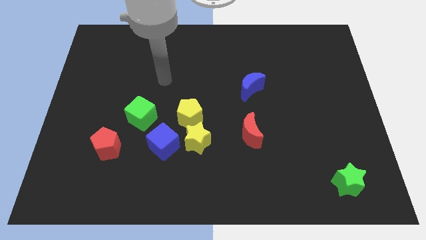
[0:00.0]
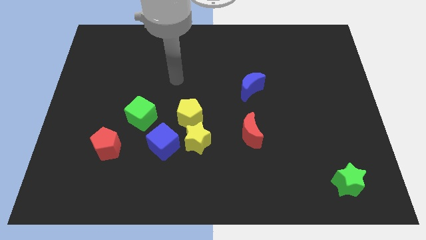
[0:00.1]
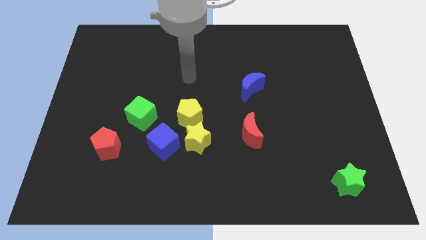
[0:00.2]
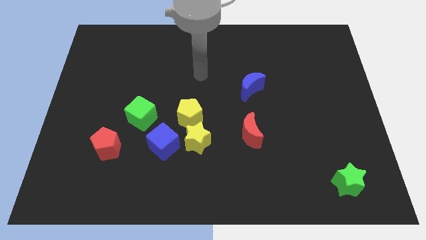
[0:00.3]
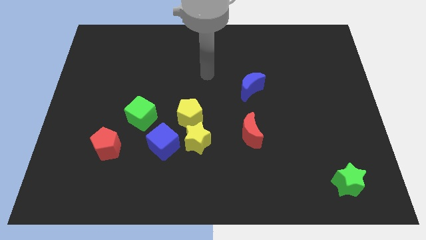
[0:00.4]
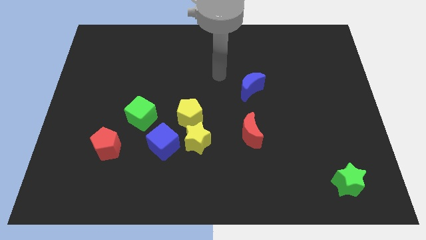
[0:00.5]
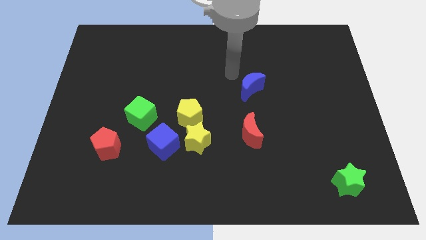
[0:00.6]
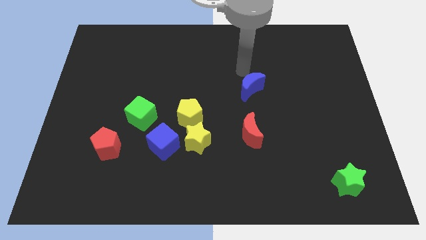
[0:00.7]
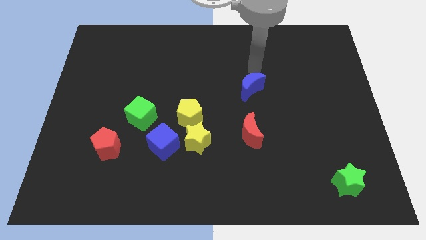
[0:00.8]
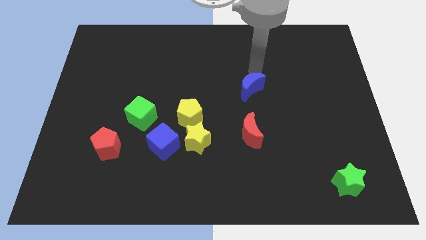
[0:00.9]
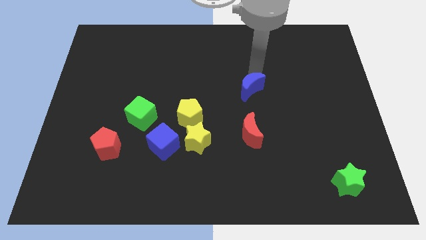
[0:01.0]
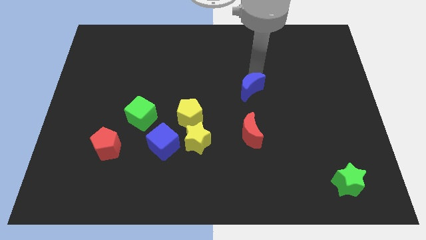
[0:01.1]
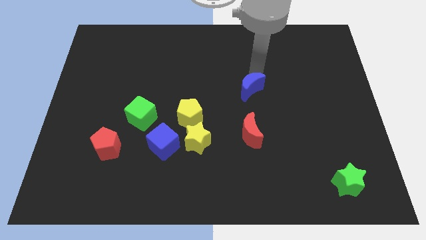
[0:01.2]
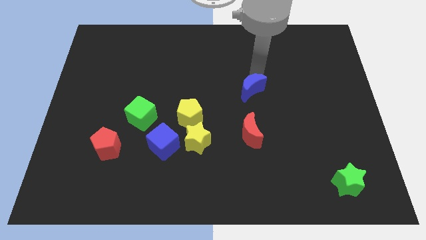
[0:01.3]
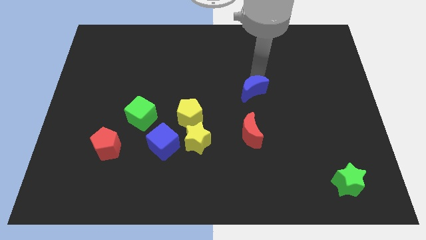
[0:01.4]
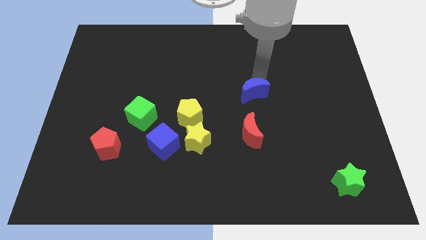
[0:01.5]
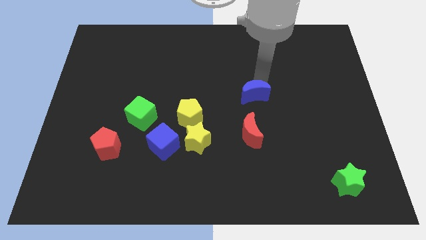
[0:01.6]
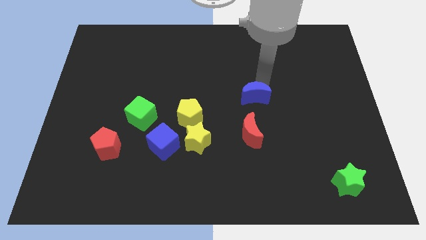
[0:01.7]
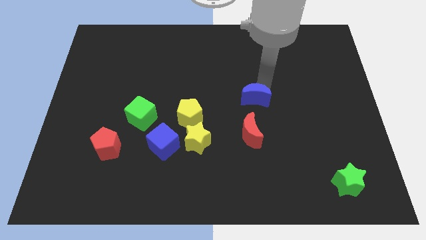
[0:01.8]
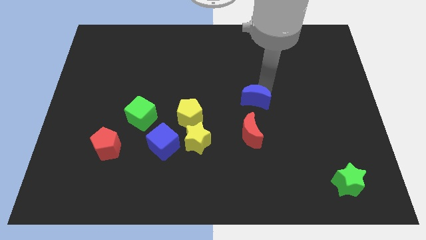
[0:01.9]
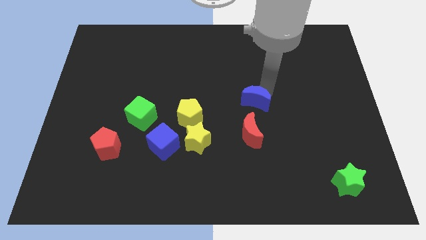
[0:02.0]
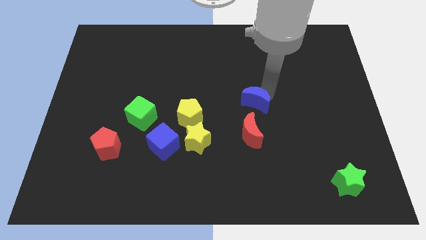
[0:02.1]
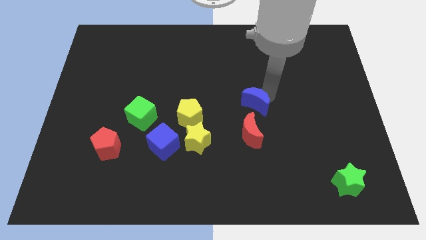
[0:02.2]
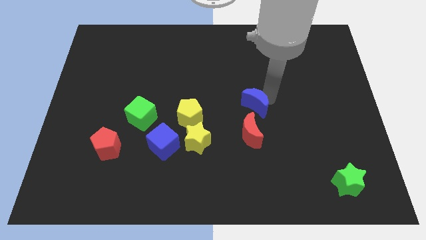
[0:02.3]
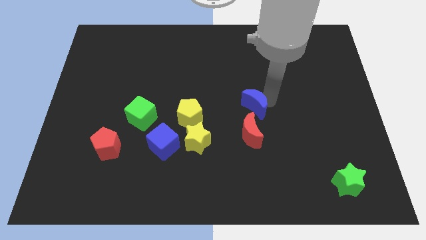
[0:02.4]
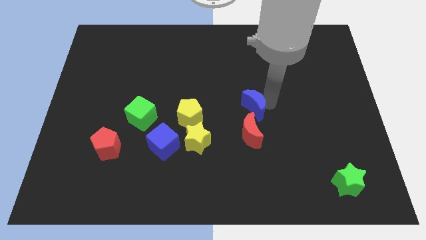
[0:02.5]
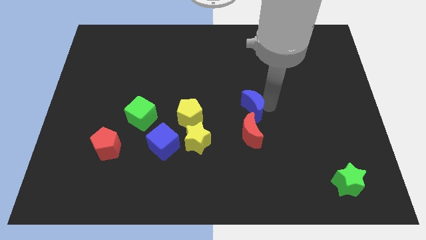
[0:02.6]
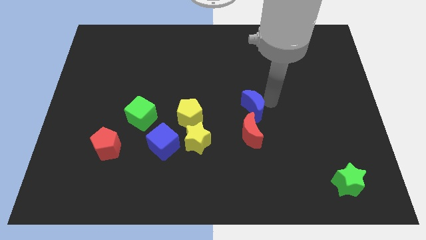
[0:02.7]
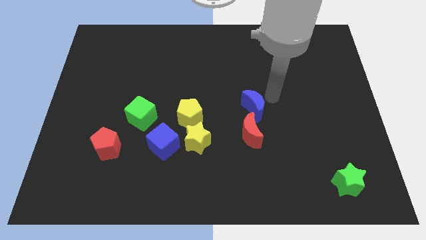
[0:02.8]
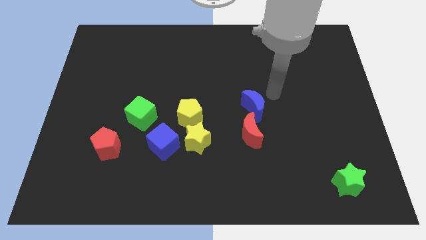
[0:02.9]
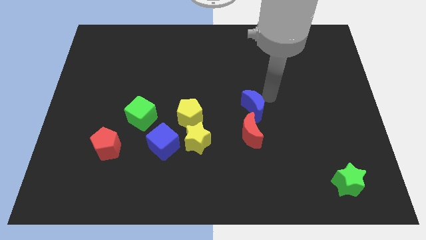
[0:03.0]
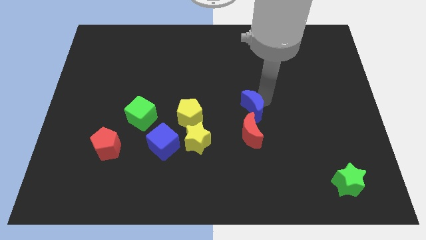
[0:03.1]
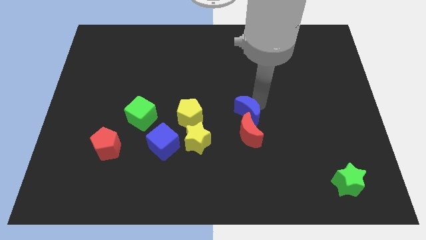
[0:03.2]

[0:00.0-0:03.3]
slightly move the blue moon down

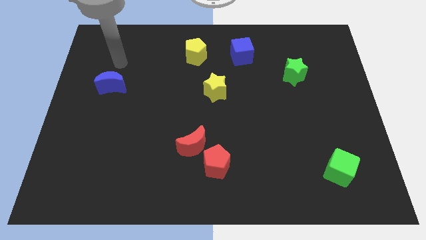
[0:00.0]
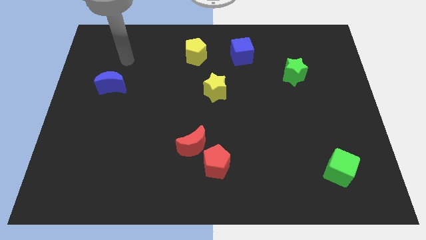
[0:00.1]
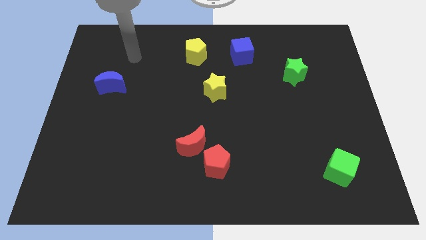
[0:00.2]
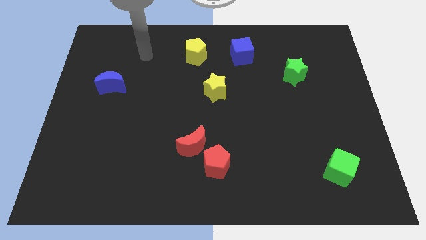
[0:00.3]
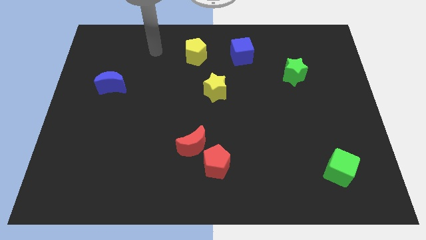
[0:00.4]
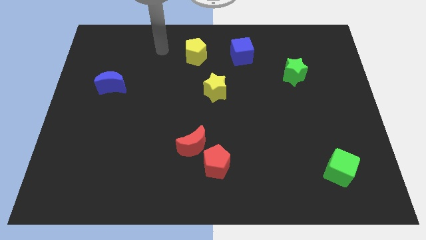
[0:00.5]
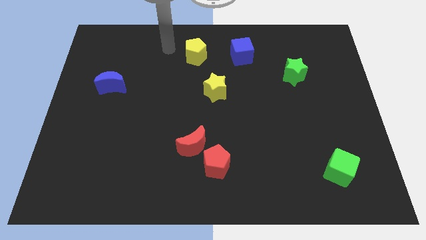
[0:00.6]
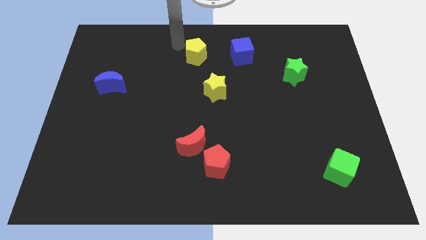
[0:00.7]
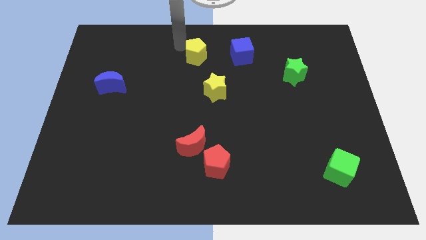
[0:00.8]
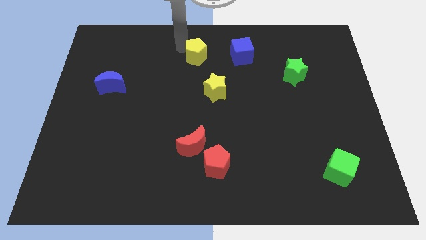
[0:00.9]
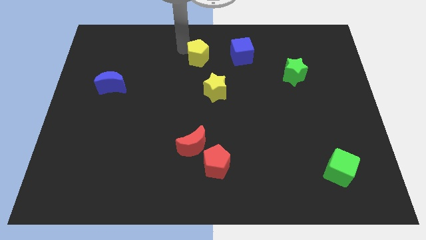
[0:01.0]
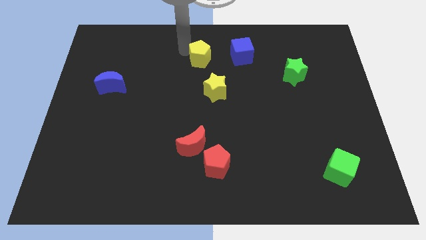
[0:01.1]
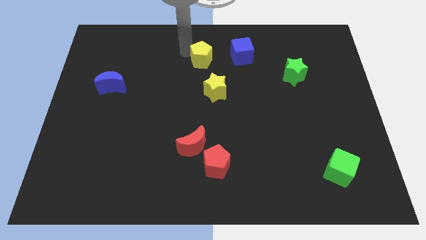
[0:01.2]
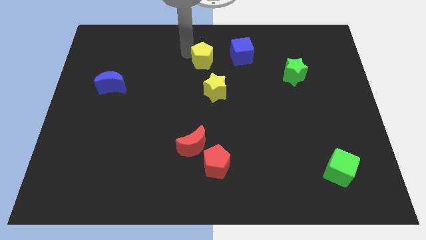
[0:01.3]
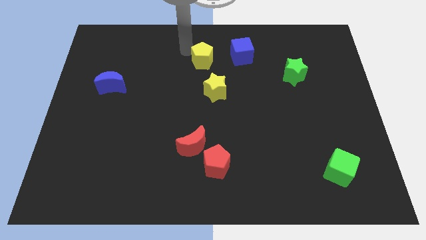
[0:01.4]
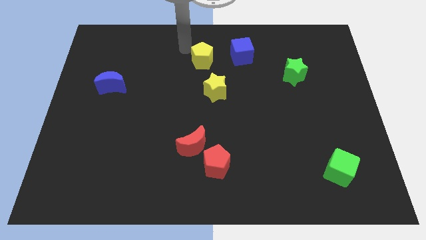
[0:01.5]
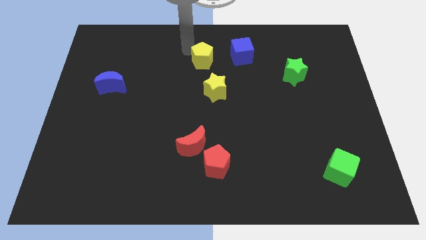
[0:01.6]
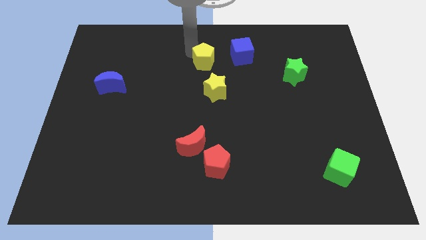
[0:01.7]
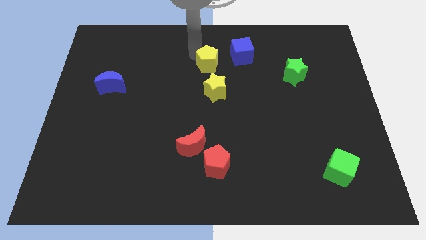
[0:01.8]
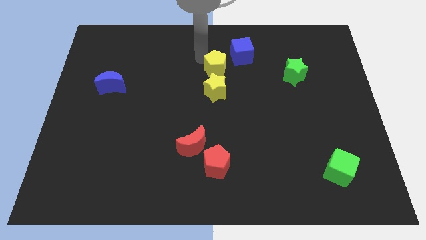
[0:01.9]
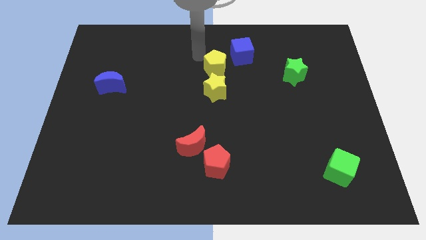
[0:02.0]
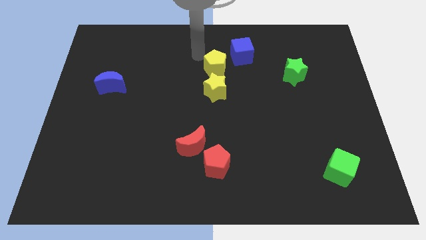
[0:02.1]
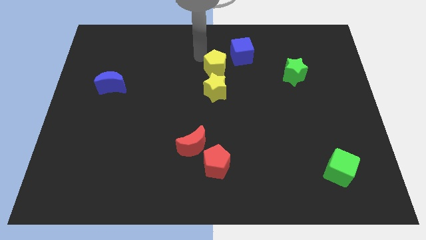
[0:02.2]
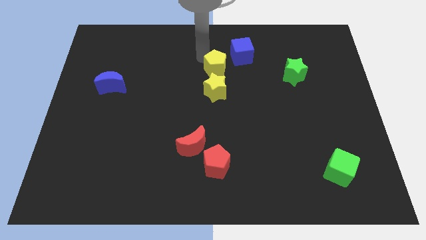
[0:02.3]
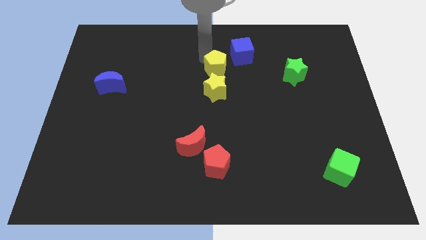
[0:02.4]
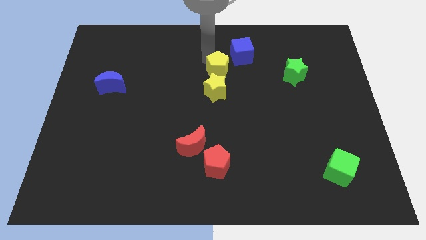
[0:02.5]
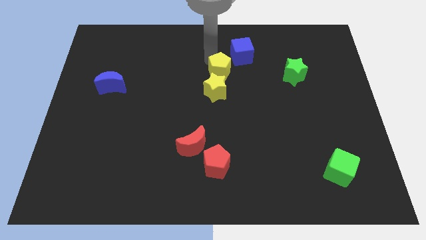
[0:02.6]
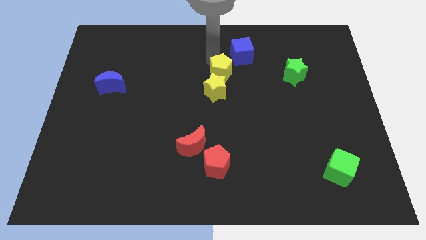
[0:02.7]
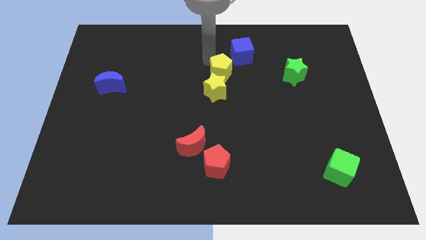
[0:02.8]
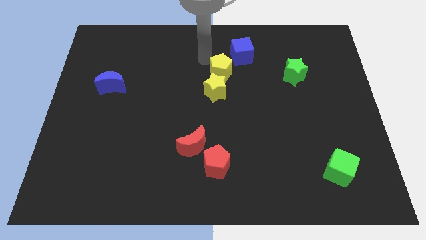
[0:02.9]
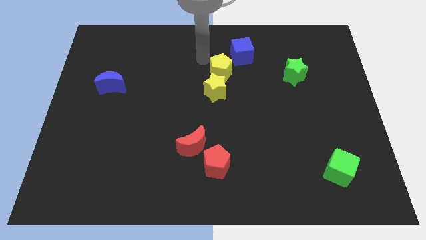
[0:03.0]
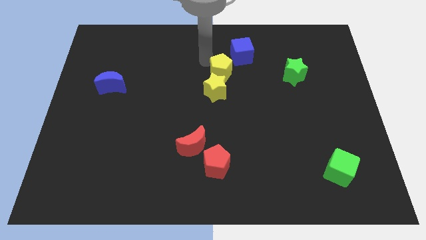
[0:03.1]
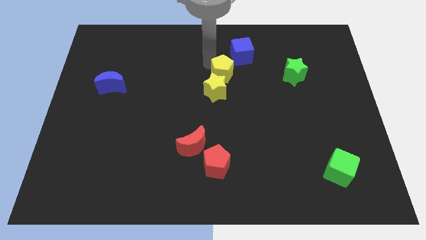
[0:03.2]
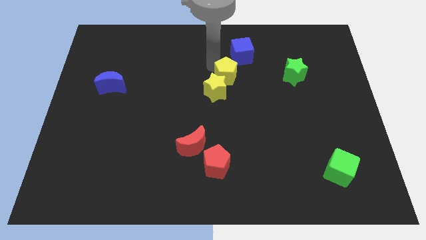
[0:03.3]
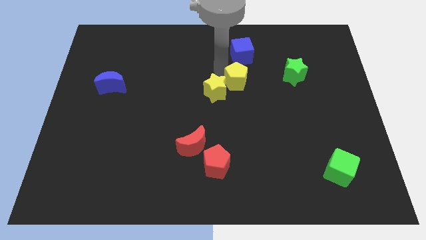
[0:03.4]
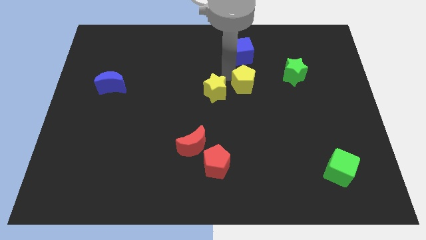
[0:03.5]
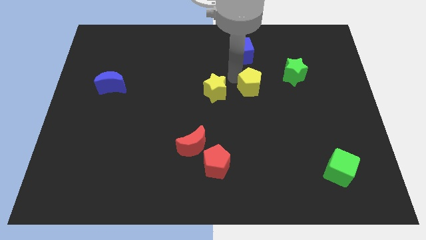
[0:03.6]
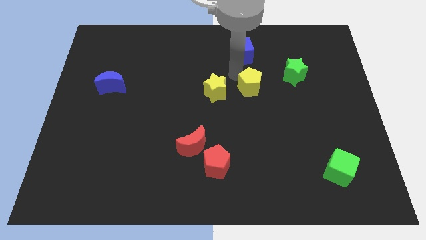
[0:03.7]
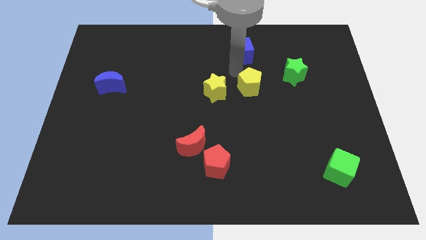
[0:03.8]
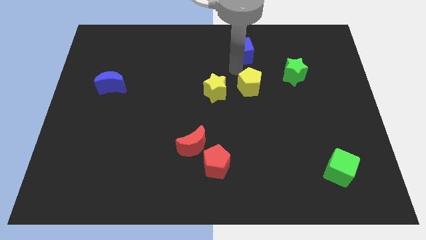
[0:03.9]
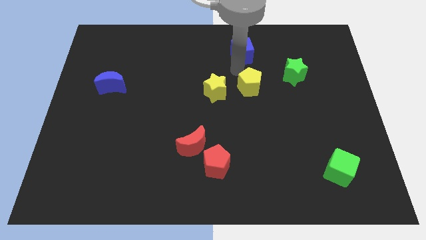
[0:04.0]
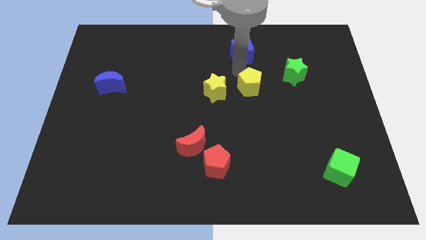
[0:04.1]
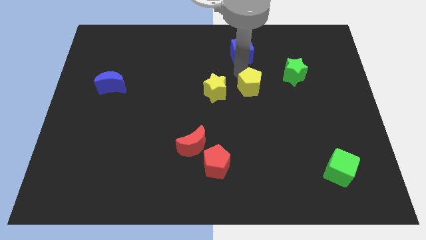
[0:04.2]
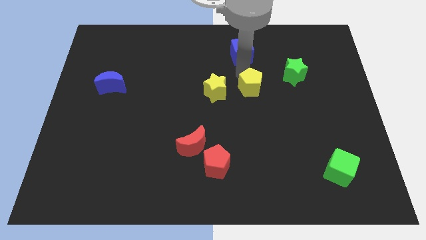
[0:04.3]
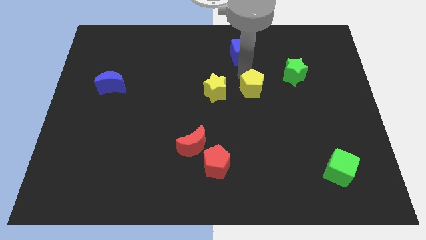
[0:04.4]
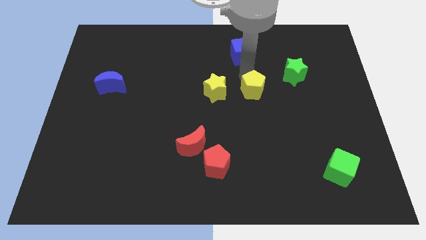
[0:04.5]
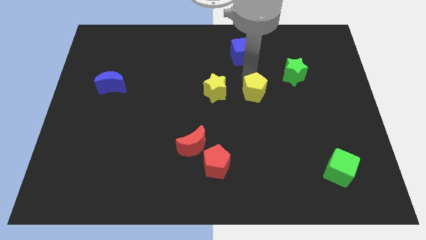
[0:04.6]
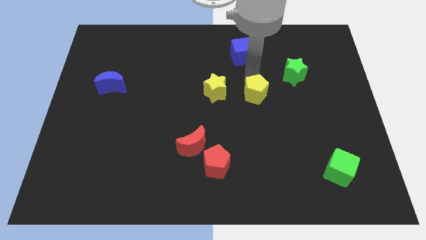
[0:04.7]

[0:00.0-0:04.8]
move the yellow pentagon down and to the right

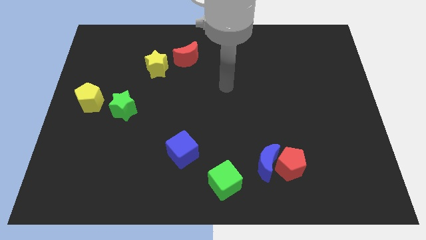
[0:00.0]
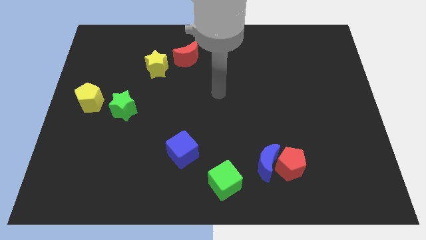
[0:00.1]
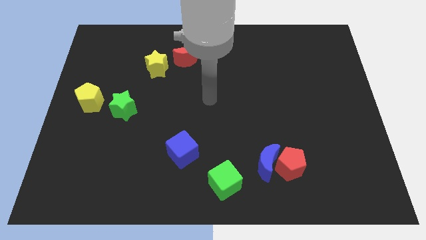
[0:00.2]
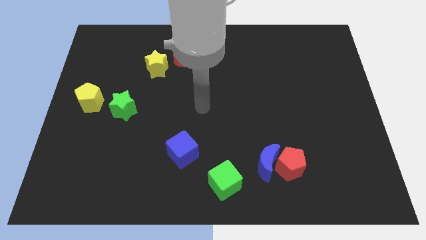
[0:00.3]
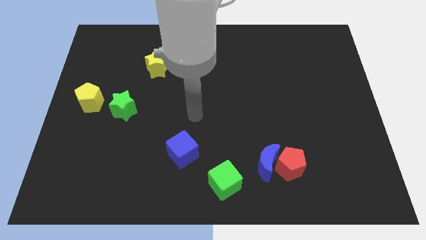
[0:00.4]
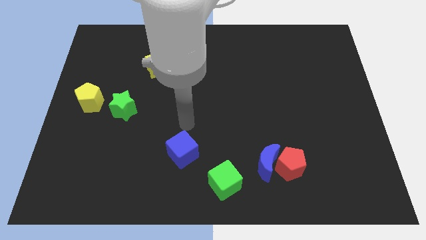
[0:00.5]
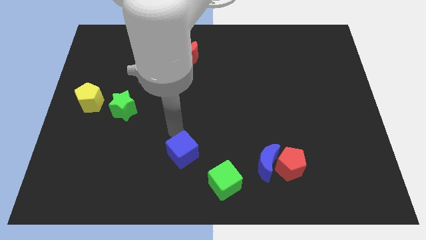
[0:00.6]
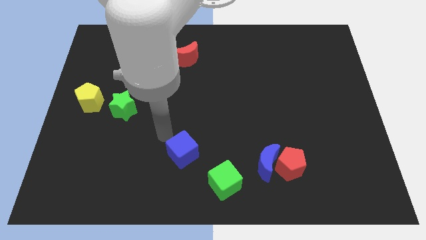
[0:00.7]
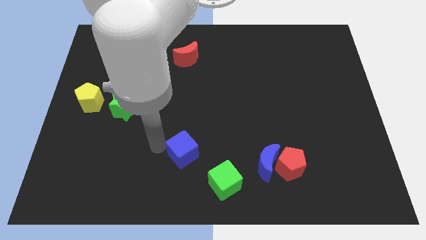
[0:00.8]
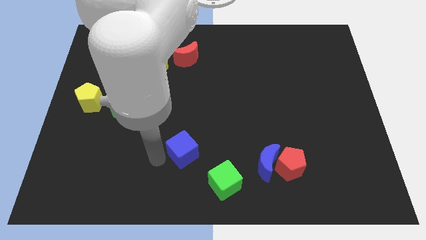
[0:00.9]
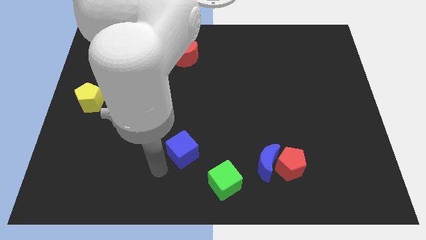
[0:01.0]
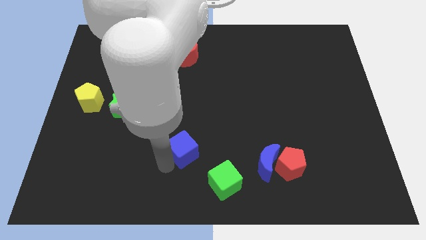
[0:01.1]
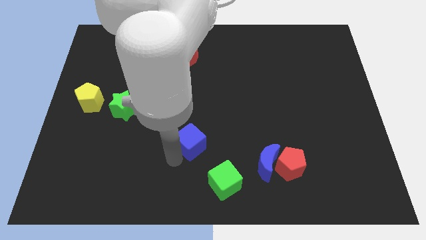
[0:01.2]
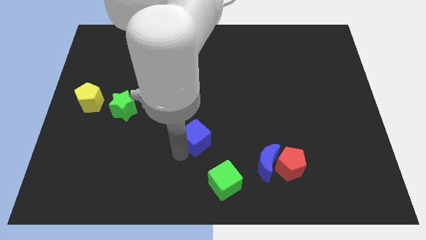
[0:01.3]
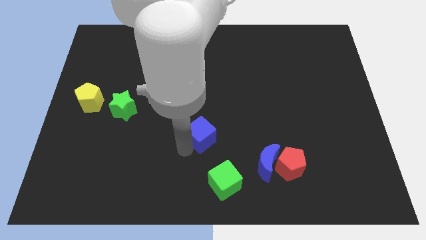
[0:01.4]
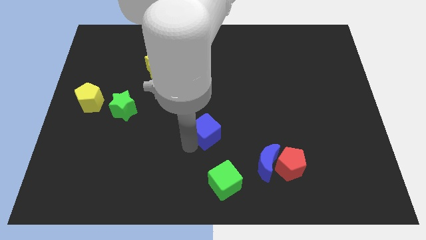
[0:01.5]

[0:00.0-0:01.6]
slide the blue cube slightly upwards and right diagonally
